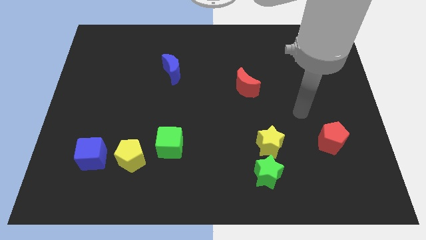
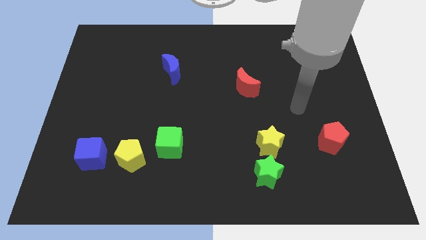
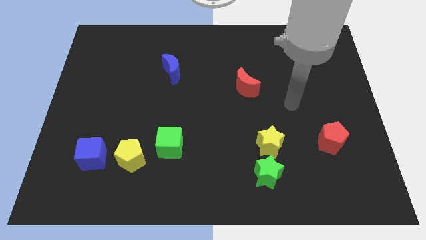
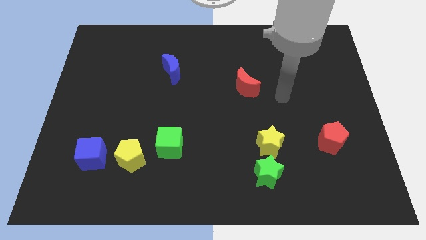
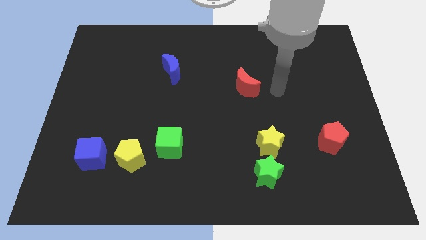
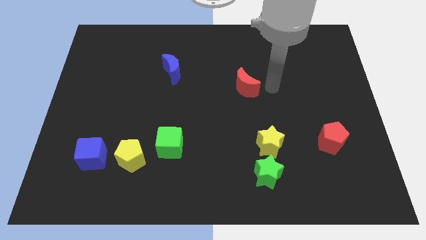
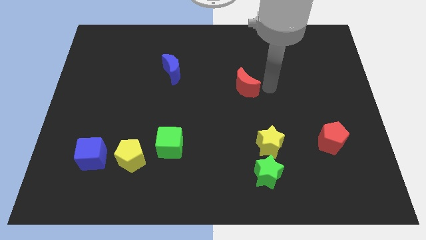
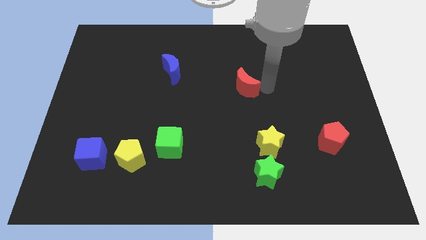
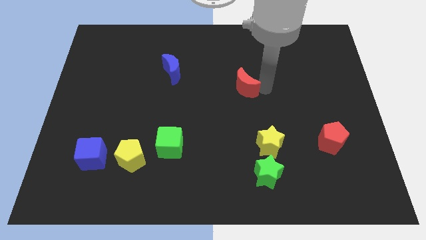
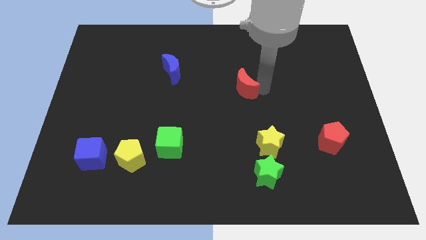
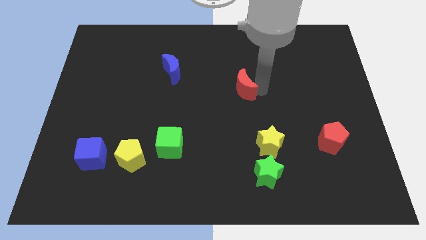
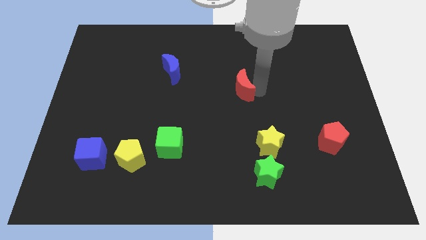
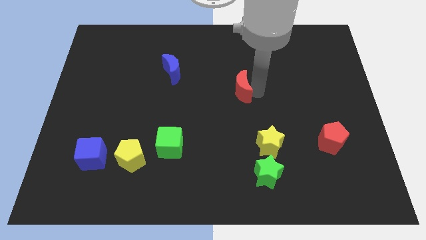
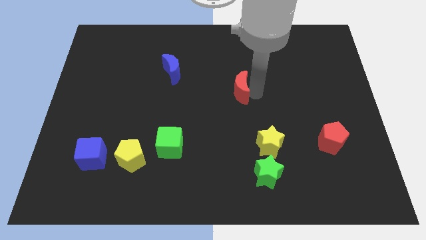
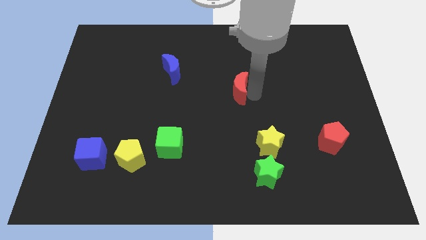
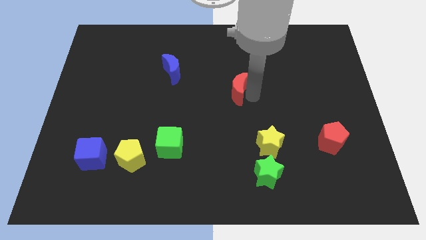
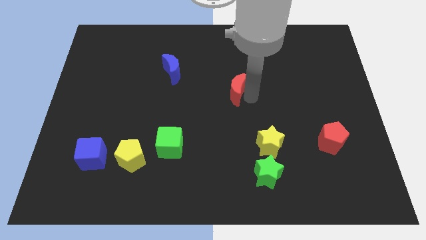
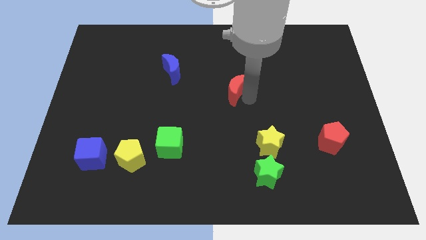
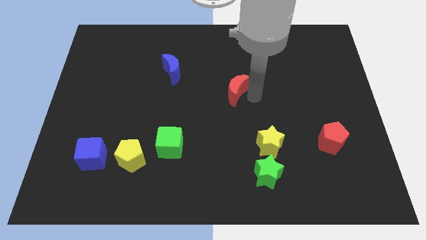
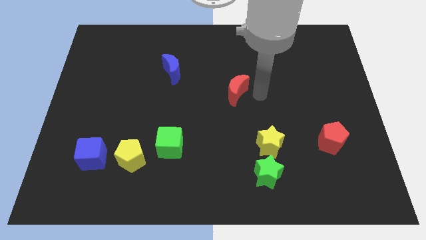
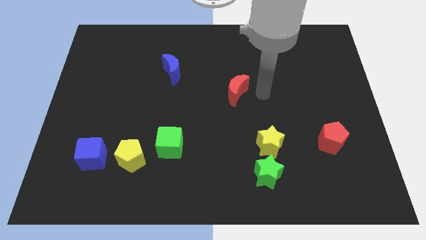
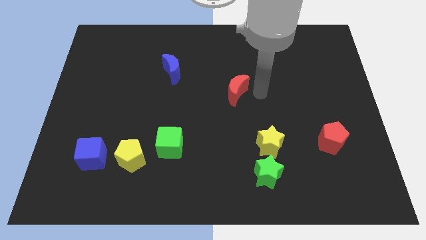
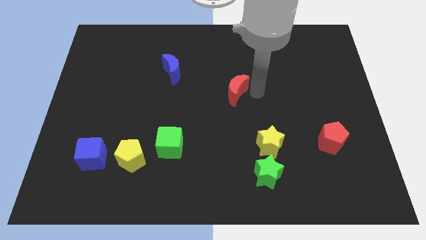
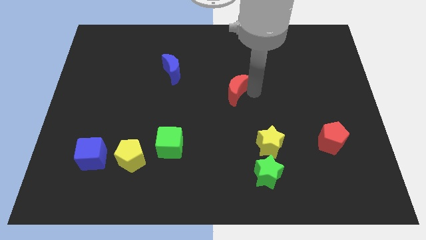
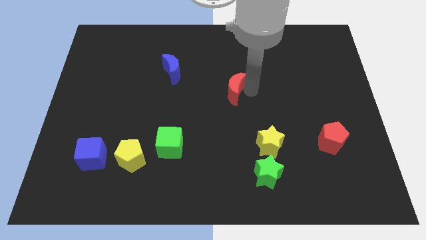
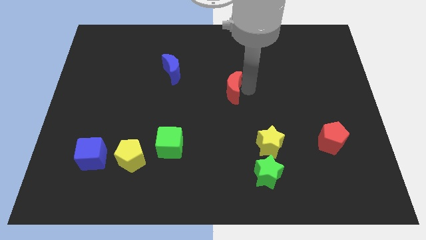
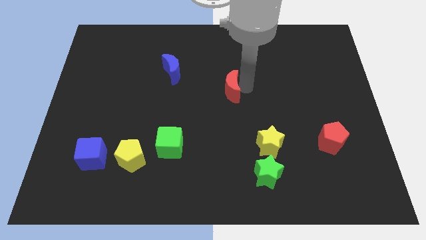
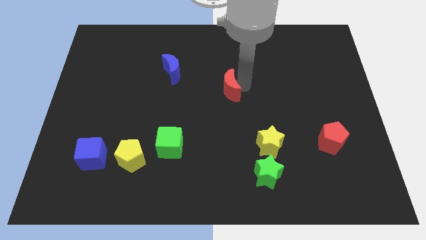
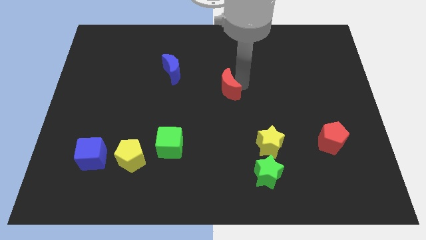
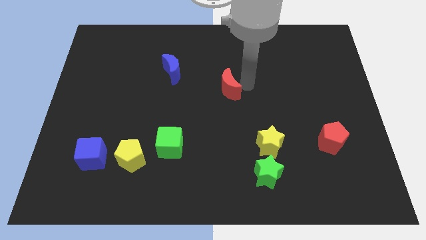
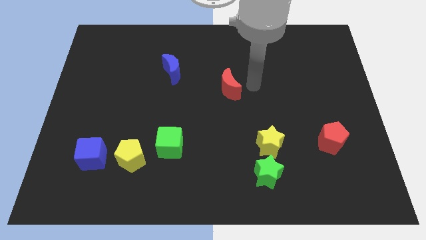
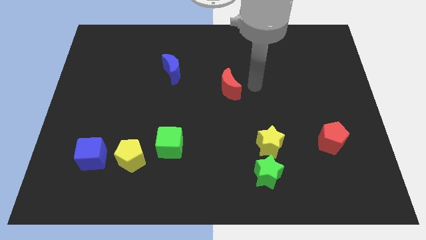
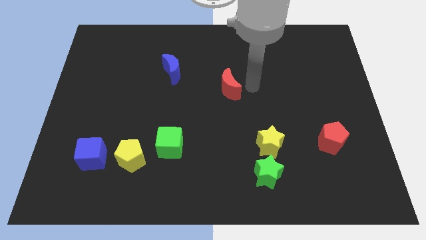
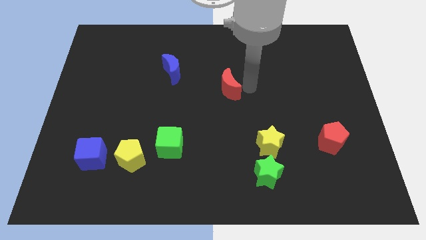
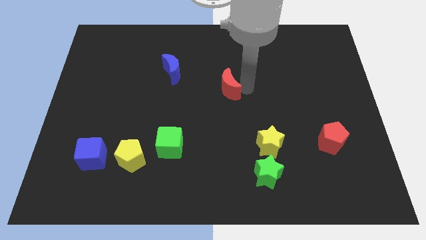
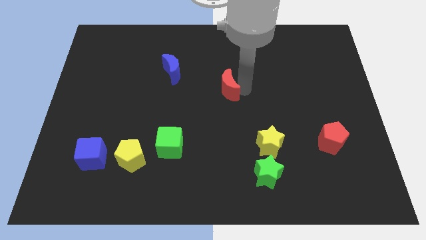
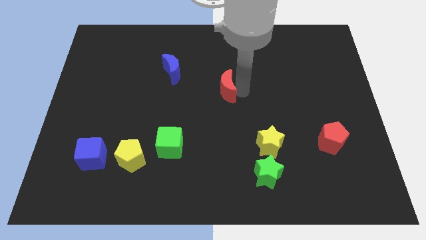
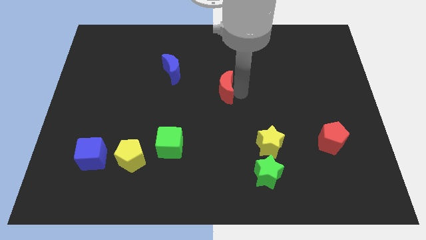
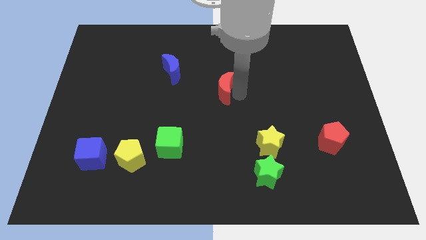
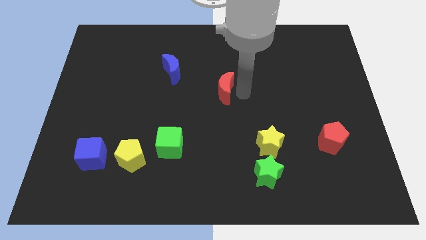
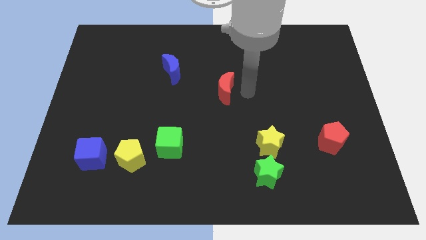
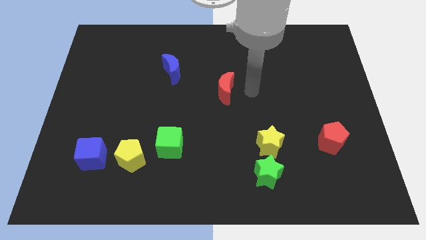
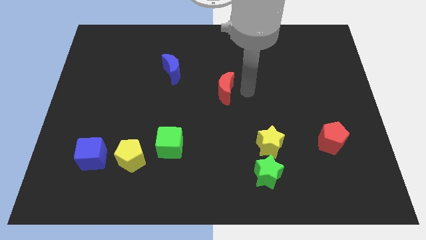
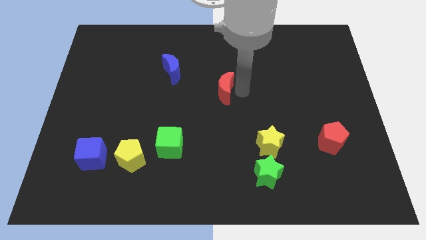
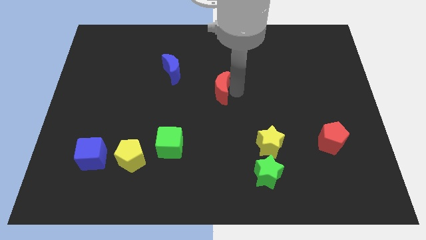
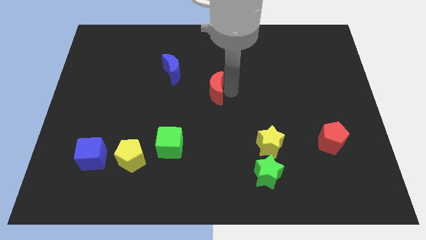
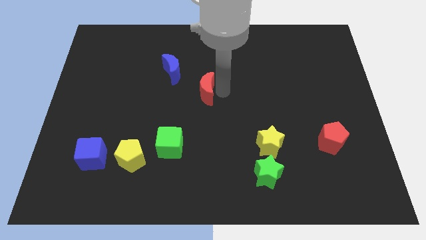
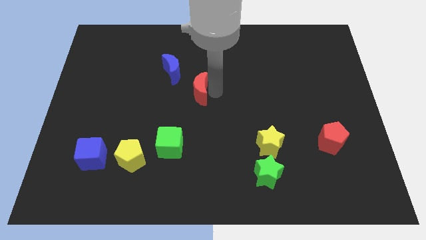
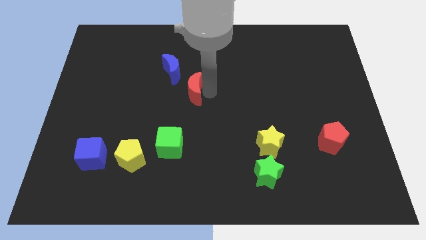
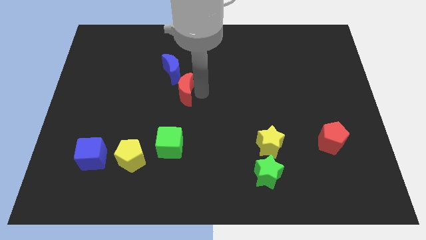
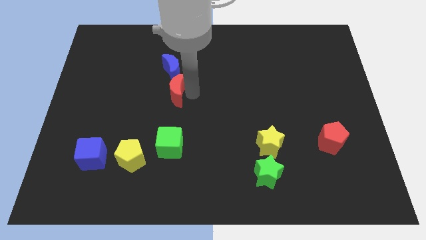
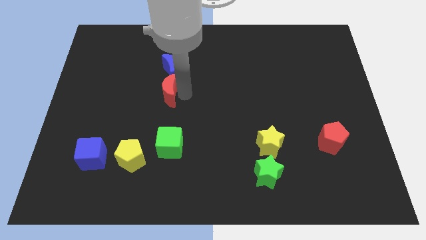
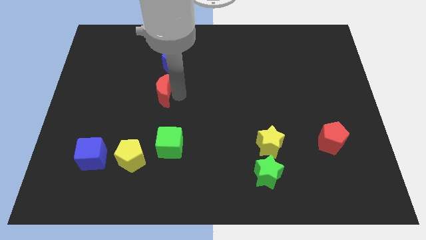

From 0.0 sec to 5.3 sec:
push the red moon left

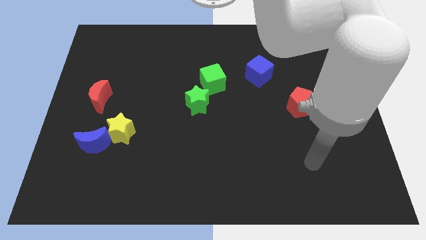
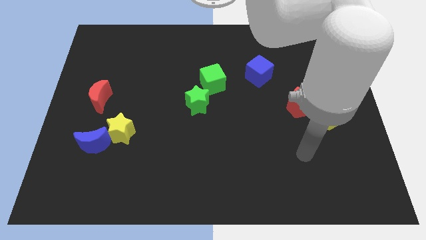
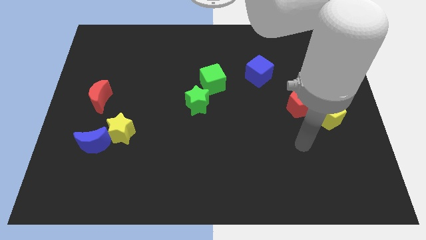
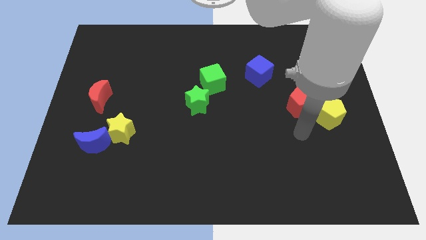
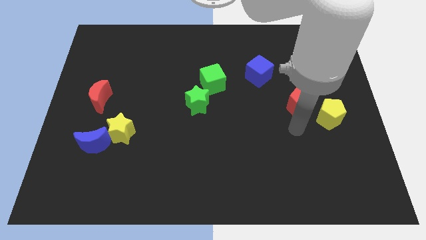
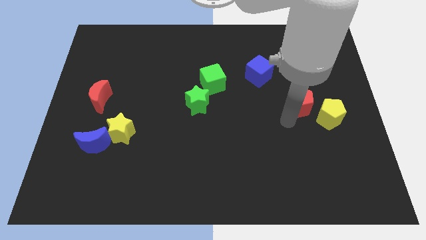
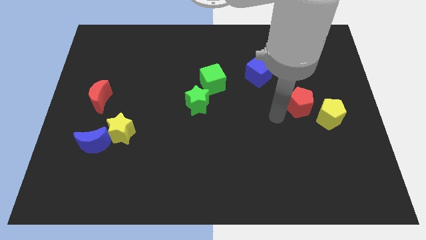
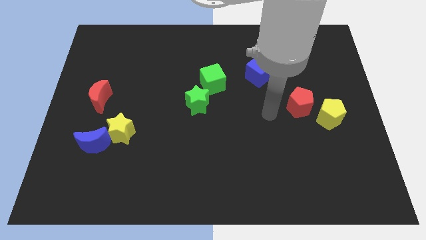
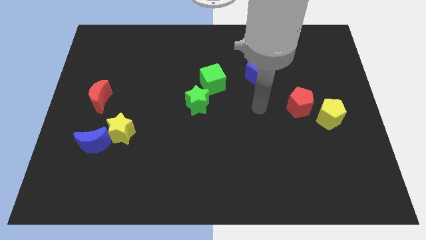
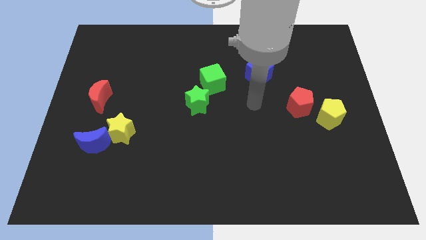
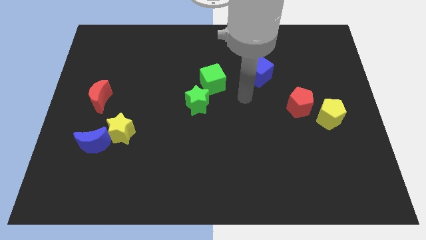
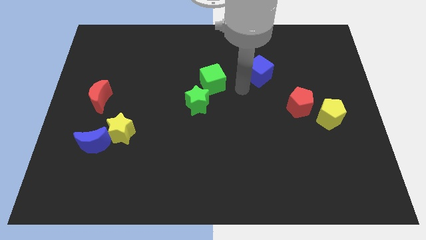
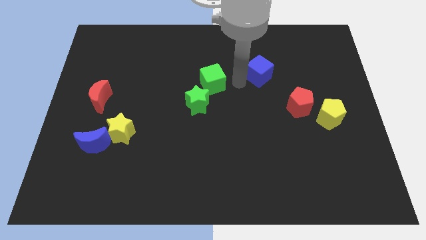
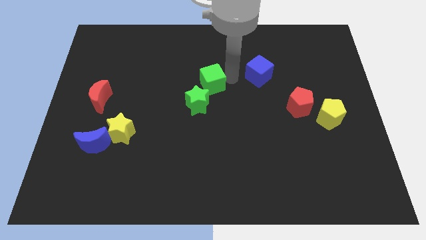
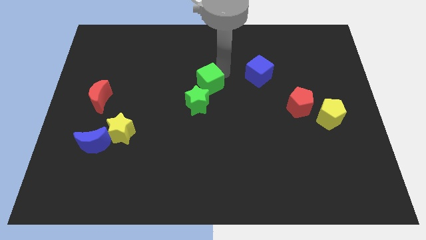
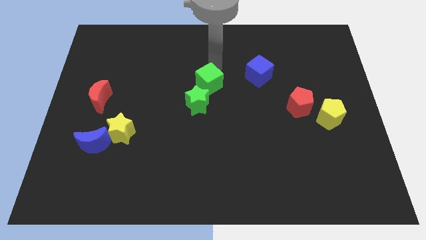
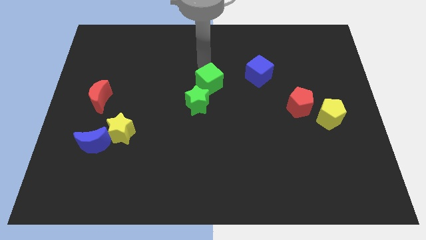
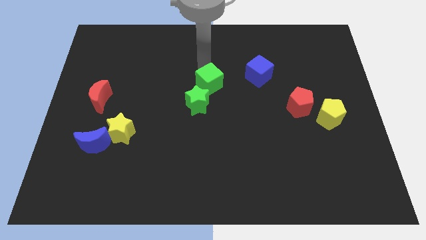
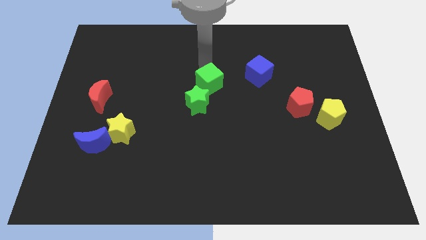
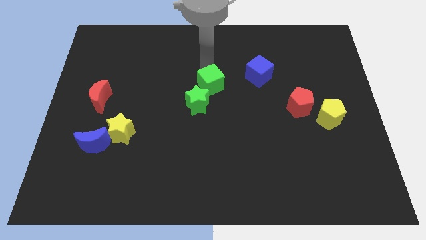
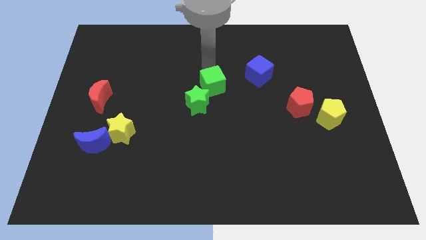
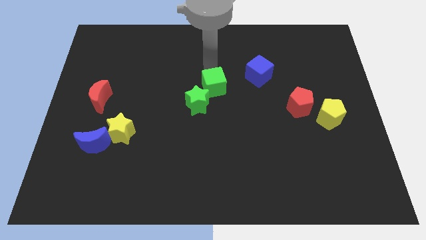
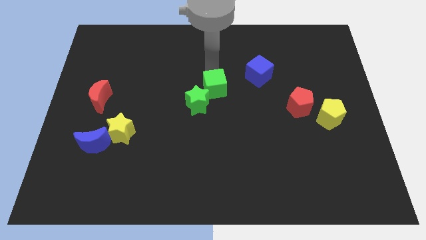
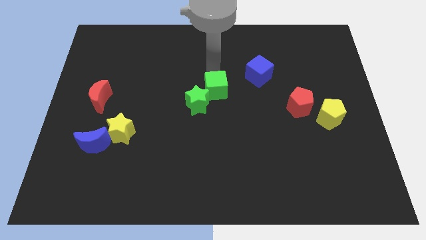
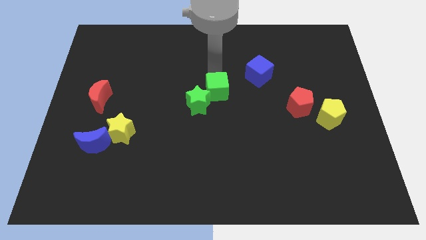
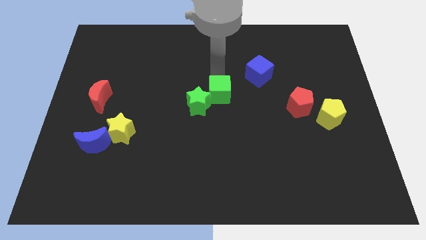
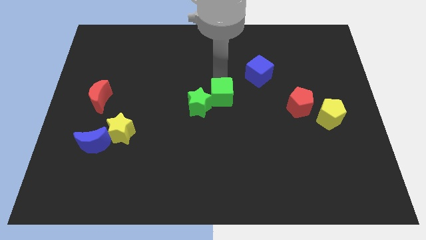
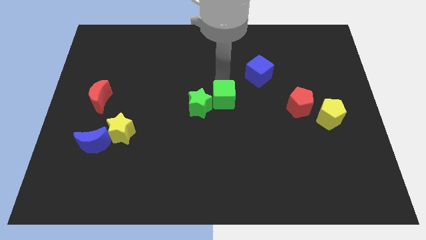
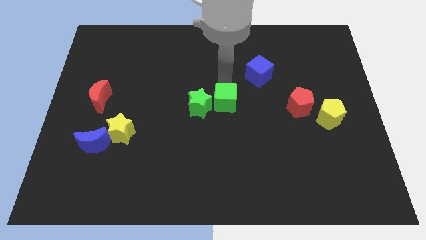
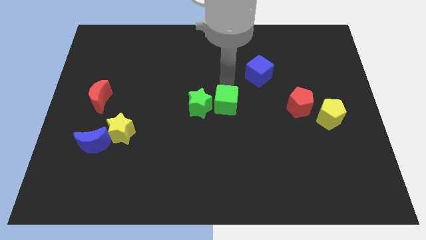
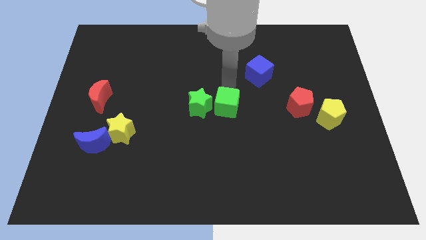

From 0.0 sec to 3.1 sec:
move the green cube slightly down
